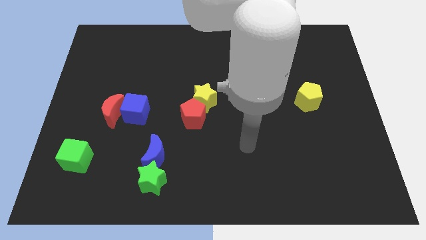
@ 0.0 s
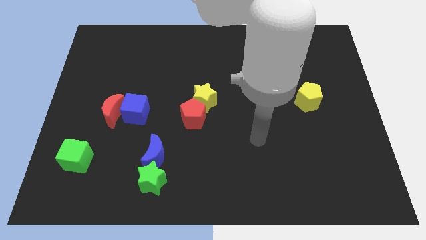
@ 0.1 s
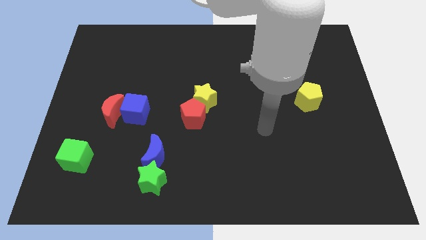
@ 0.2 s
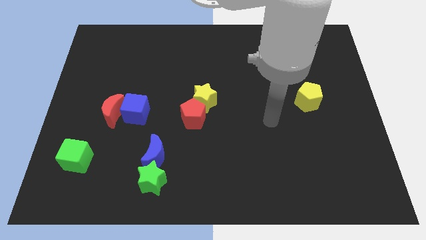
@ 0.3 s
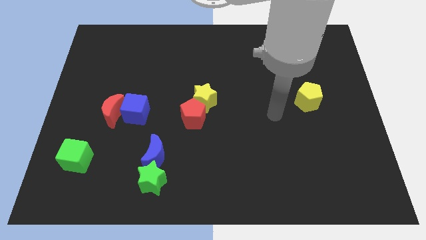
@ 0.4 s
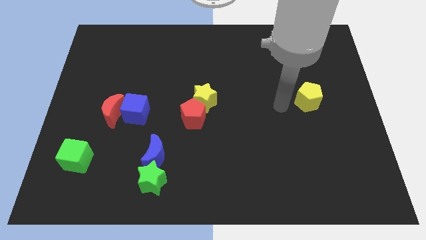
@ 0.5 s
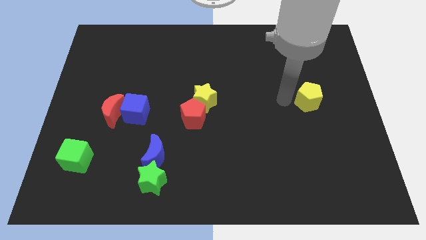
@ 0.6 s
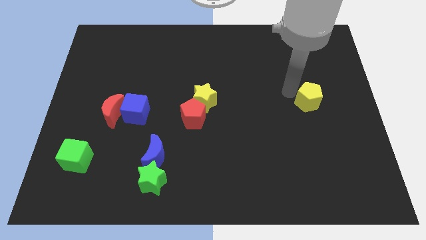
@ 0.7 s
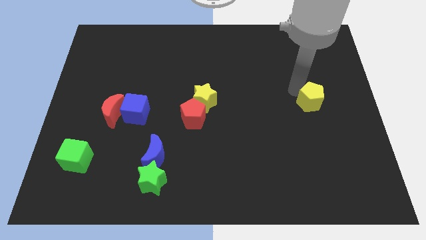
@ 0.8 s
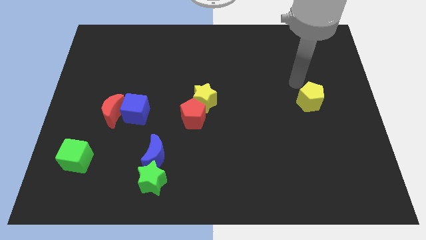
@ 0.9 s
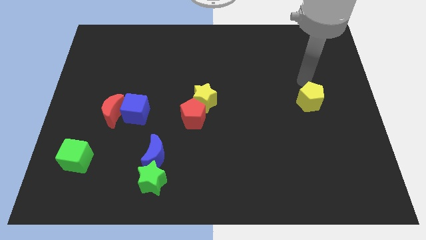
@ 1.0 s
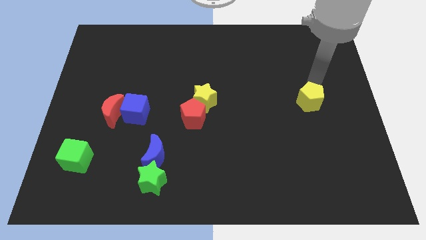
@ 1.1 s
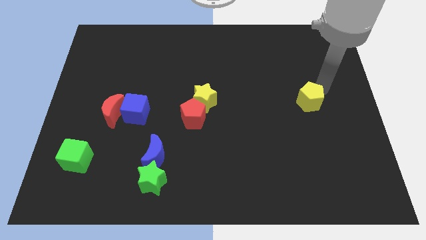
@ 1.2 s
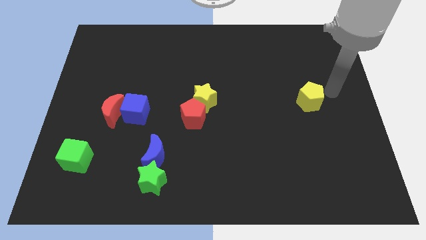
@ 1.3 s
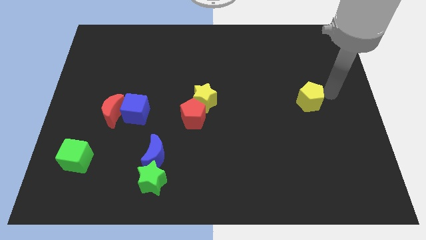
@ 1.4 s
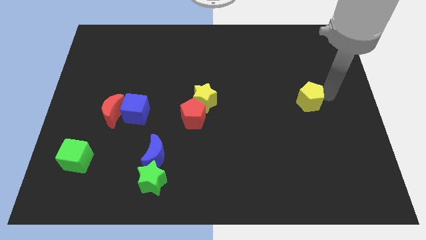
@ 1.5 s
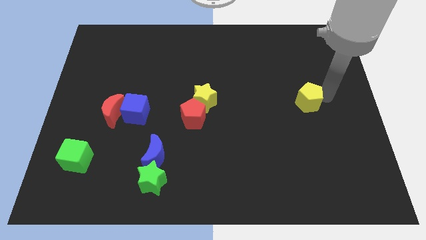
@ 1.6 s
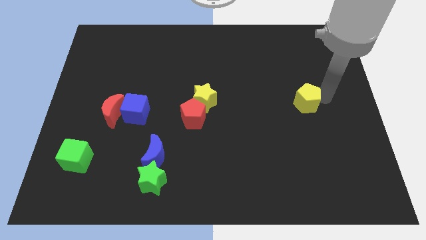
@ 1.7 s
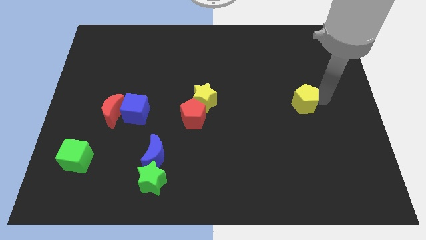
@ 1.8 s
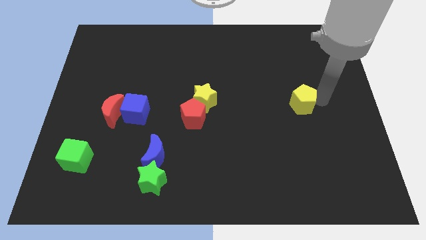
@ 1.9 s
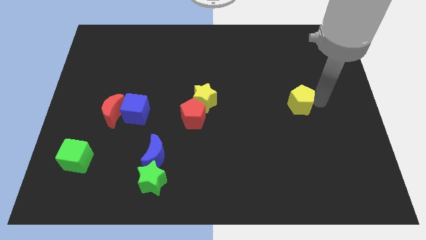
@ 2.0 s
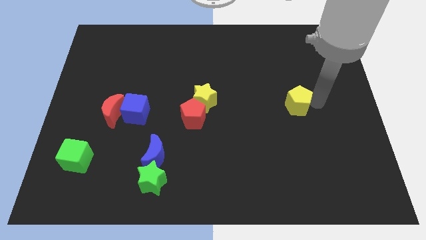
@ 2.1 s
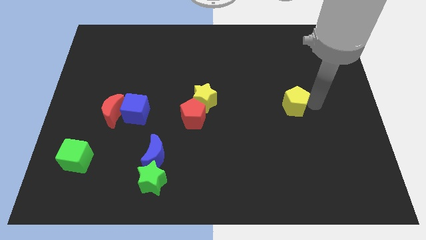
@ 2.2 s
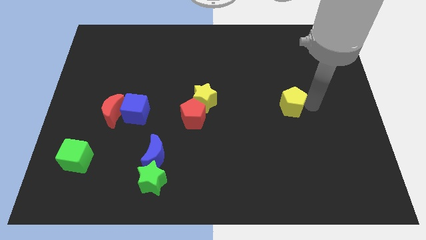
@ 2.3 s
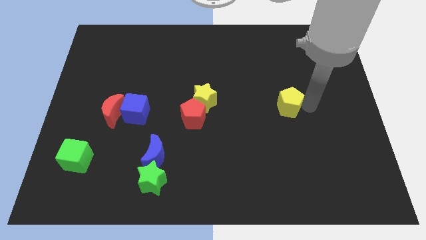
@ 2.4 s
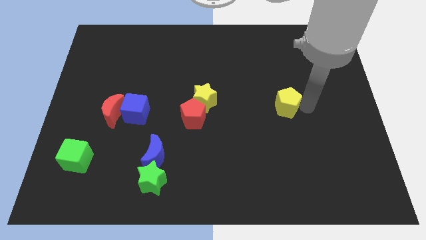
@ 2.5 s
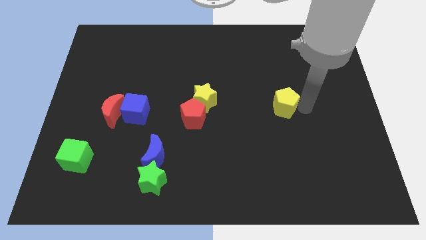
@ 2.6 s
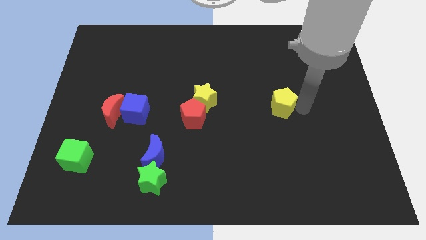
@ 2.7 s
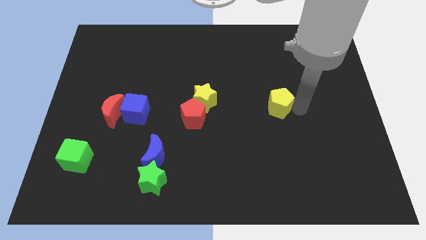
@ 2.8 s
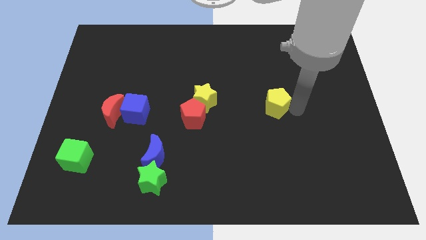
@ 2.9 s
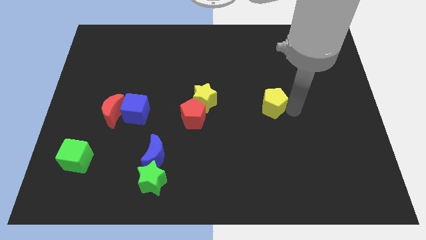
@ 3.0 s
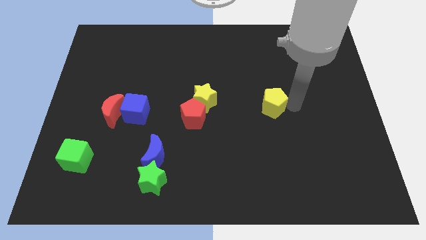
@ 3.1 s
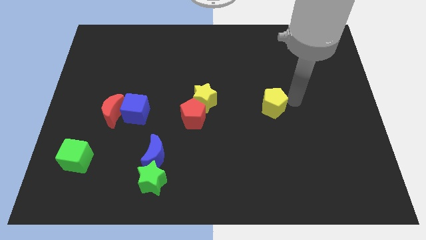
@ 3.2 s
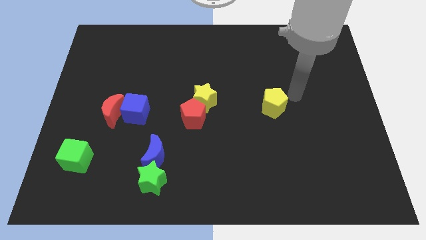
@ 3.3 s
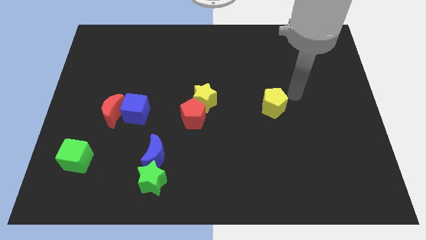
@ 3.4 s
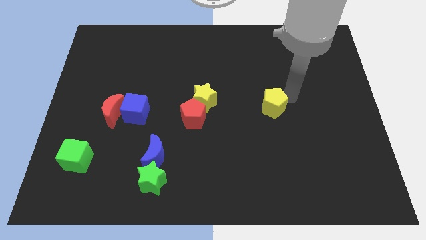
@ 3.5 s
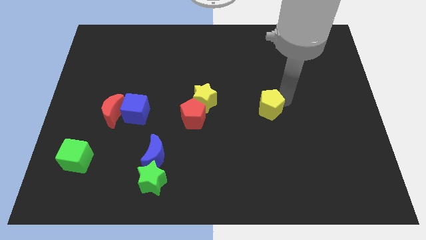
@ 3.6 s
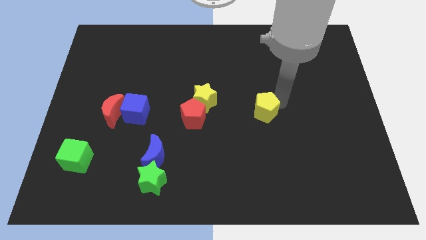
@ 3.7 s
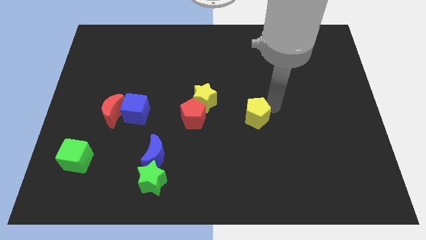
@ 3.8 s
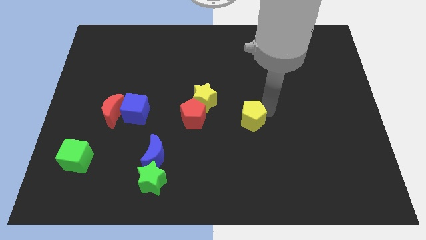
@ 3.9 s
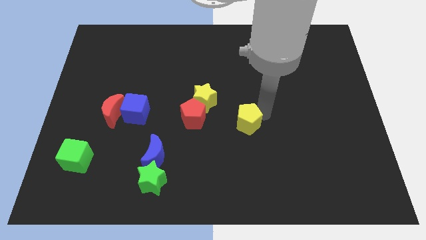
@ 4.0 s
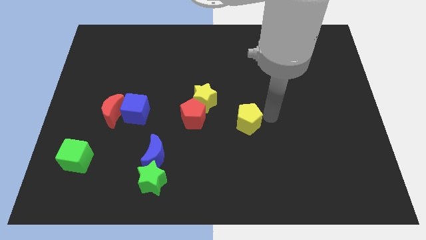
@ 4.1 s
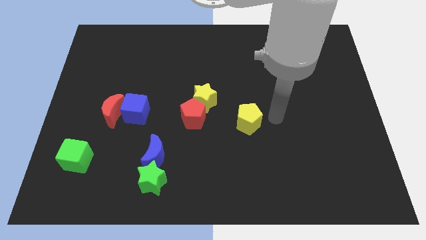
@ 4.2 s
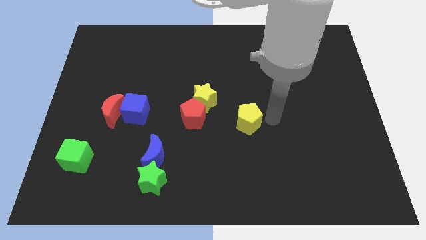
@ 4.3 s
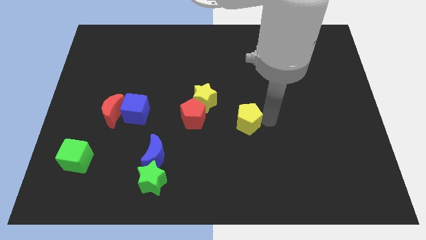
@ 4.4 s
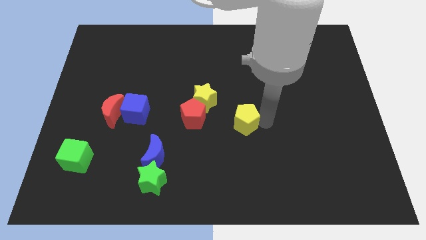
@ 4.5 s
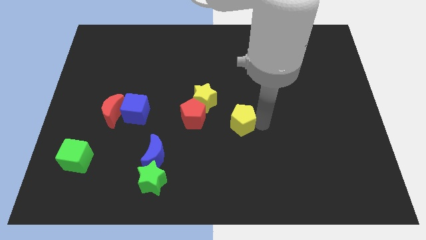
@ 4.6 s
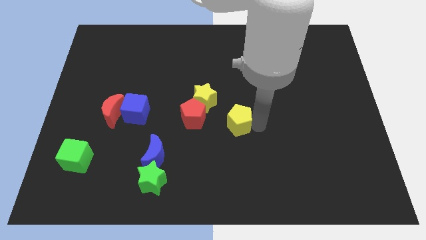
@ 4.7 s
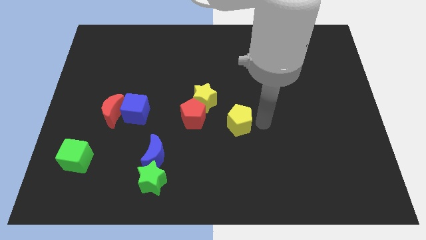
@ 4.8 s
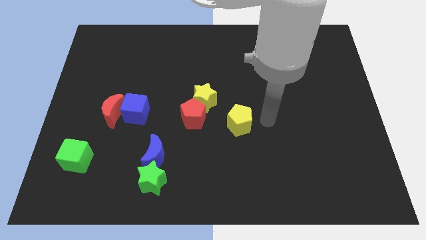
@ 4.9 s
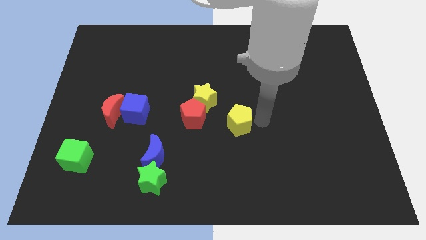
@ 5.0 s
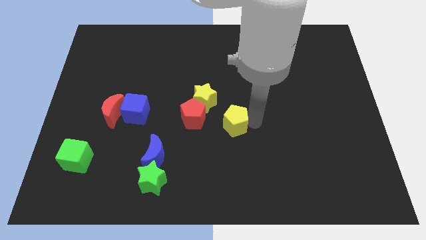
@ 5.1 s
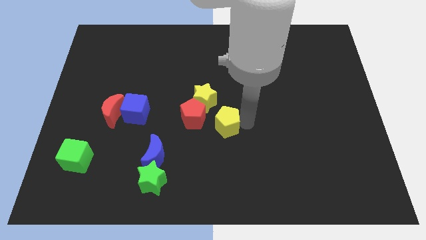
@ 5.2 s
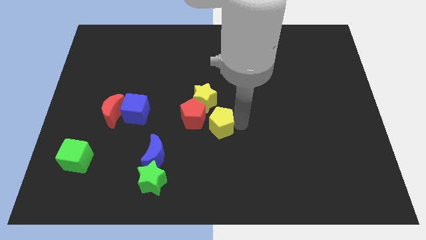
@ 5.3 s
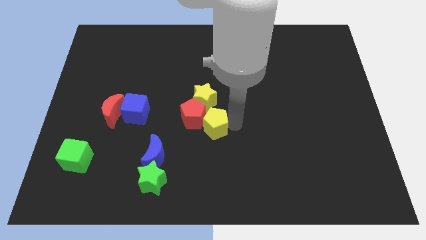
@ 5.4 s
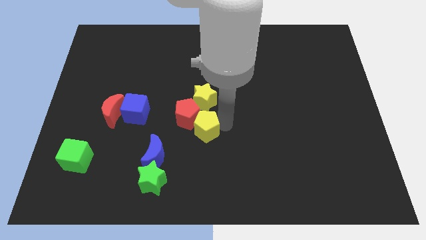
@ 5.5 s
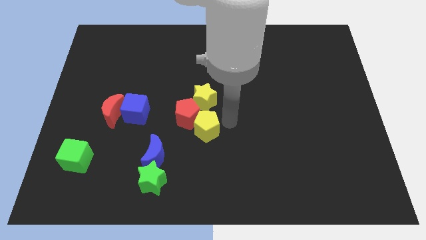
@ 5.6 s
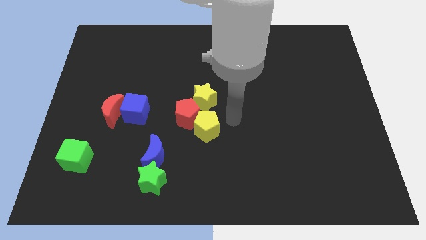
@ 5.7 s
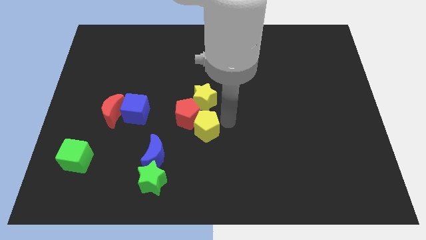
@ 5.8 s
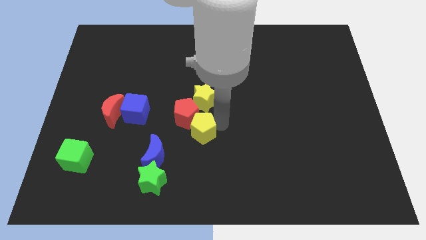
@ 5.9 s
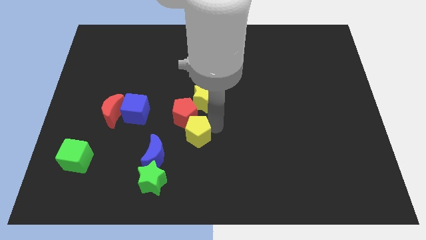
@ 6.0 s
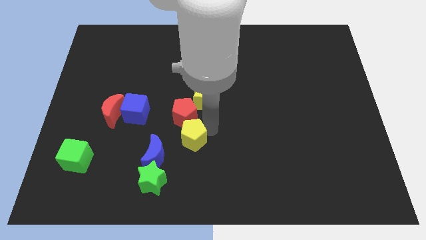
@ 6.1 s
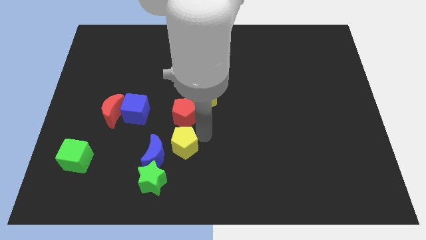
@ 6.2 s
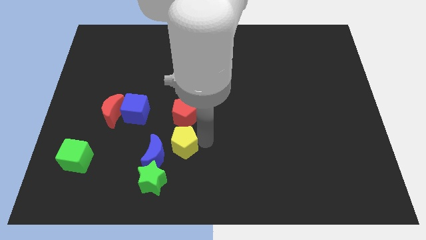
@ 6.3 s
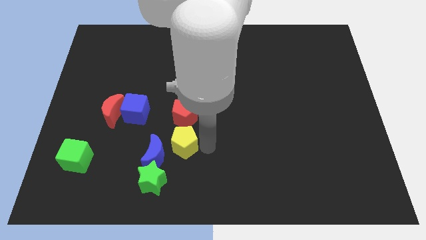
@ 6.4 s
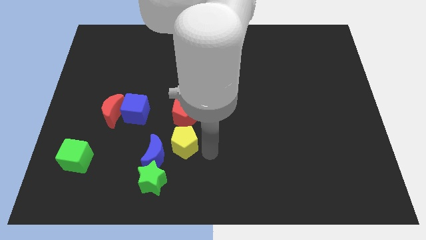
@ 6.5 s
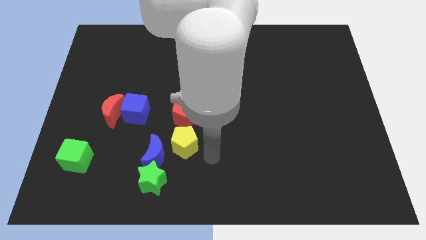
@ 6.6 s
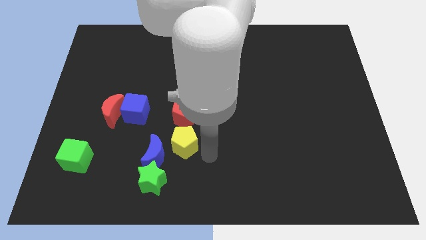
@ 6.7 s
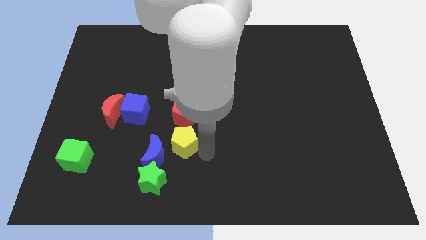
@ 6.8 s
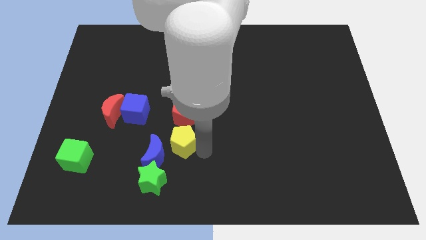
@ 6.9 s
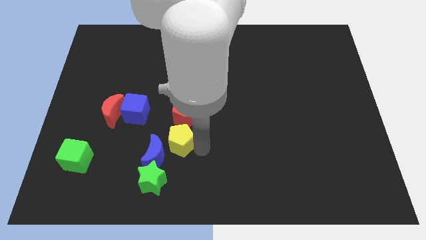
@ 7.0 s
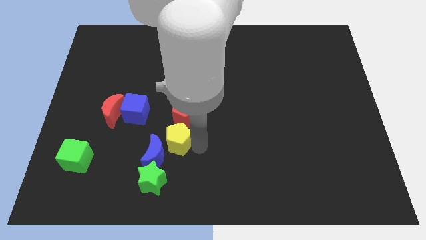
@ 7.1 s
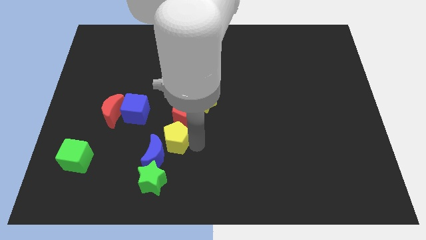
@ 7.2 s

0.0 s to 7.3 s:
push the yellow pentagon to the bottom right side of the blue cube
